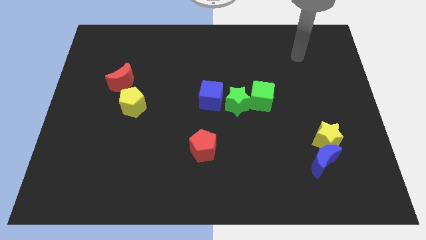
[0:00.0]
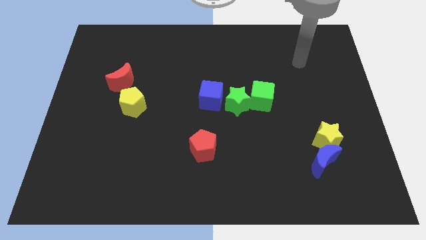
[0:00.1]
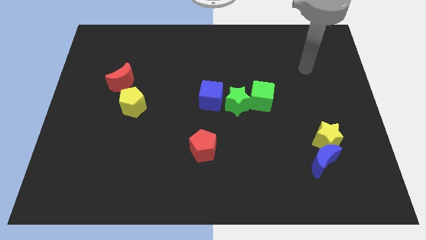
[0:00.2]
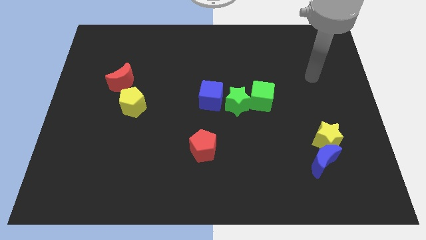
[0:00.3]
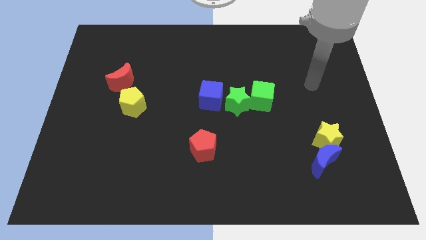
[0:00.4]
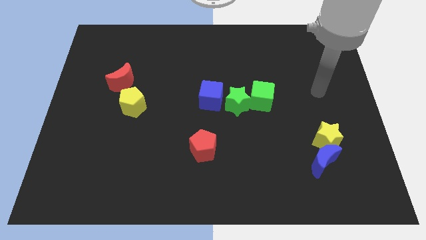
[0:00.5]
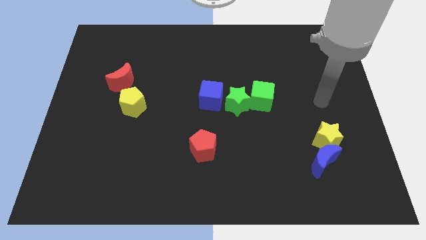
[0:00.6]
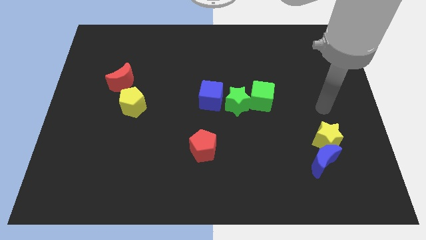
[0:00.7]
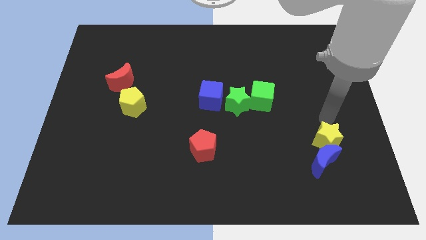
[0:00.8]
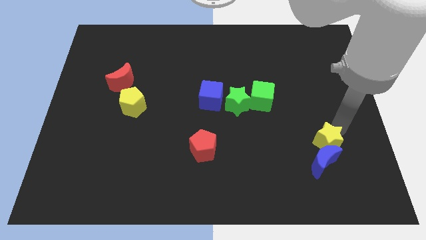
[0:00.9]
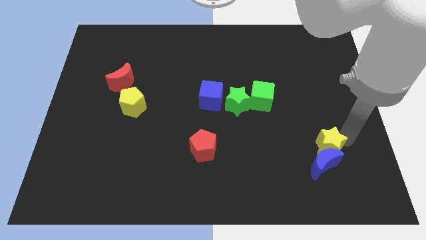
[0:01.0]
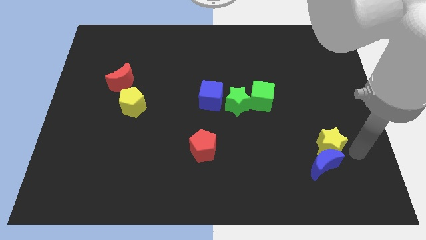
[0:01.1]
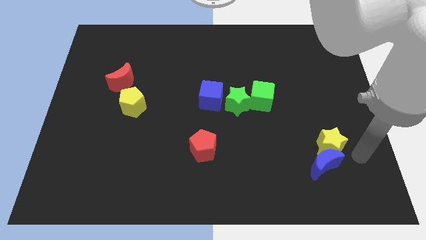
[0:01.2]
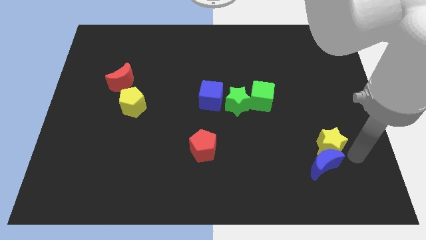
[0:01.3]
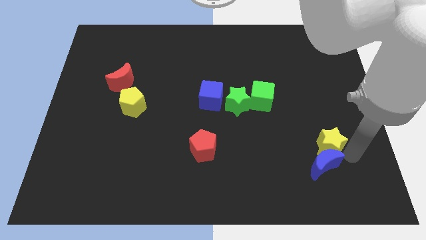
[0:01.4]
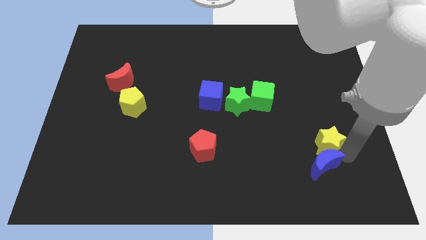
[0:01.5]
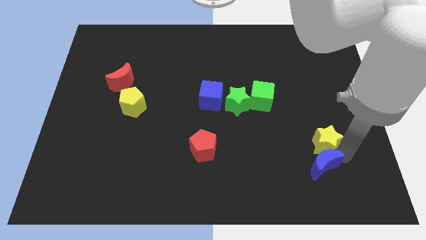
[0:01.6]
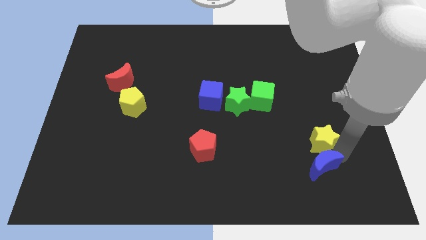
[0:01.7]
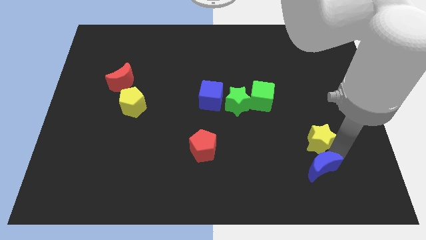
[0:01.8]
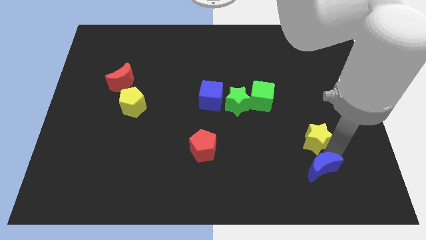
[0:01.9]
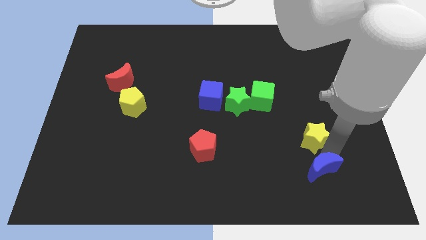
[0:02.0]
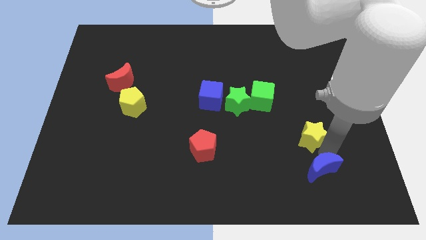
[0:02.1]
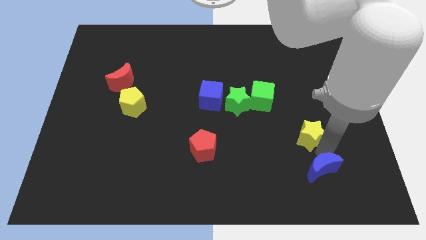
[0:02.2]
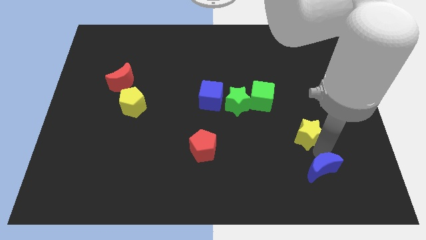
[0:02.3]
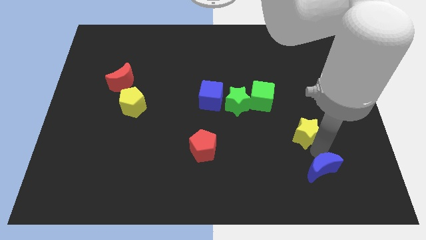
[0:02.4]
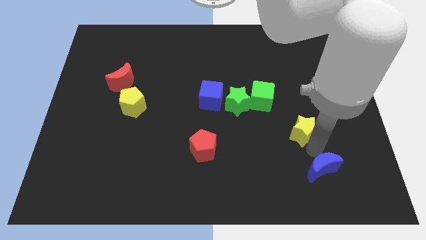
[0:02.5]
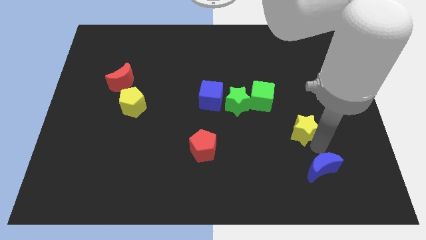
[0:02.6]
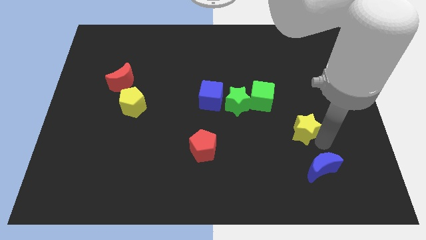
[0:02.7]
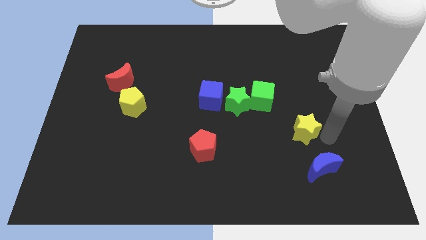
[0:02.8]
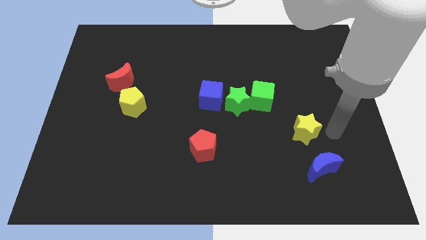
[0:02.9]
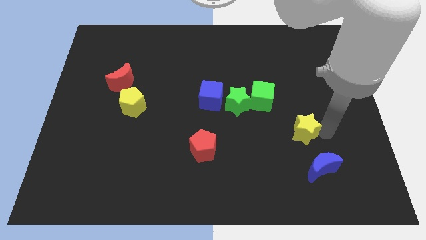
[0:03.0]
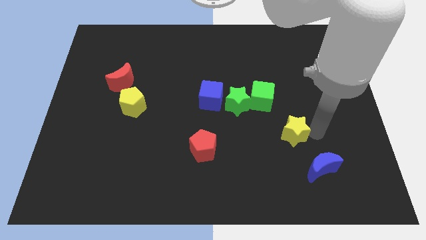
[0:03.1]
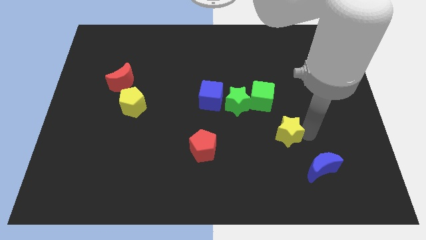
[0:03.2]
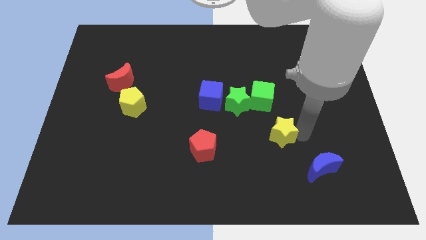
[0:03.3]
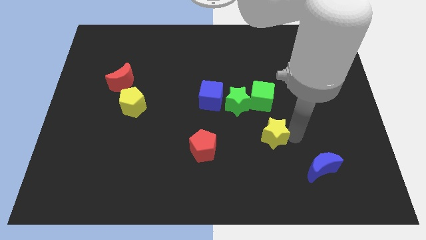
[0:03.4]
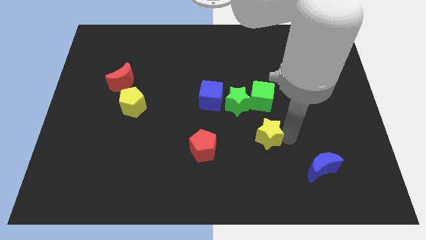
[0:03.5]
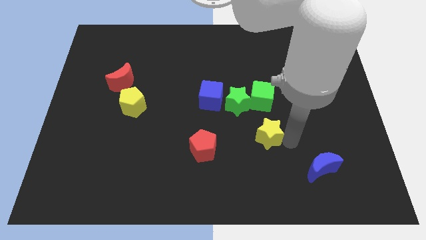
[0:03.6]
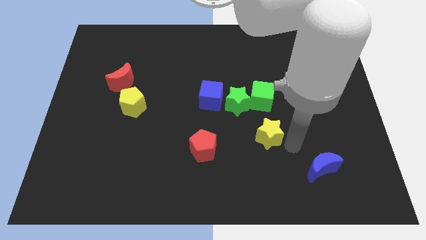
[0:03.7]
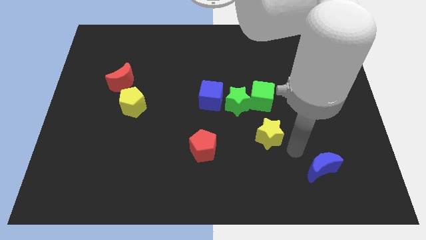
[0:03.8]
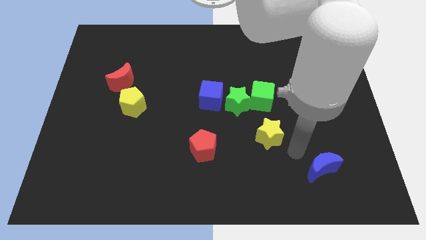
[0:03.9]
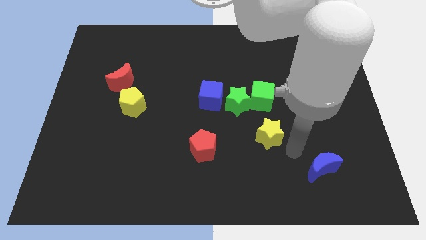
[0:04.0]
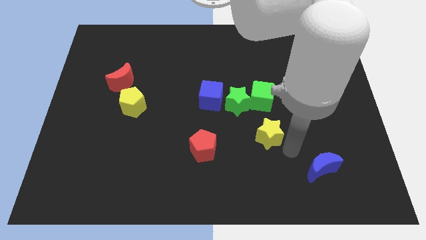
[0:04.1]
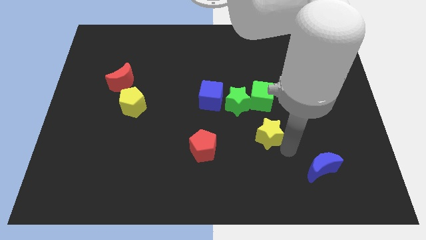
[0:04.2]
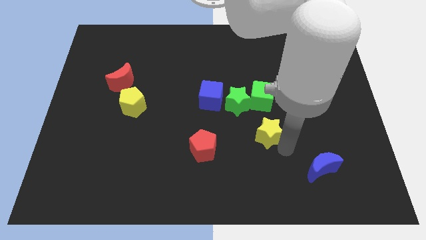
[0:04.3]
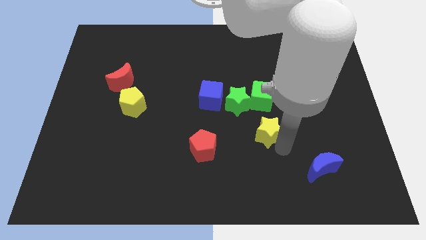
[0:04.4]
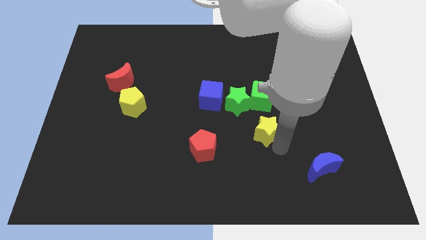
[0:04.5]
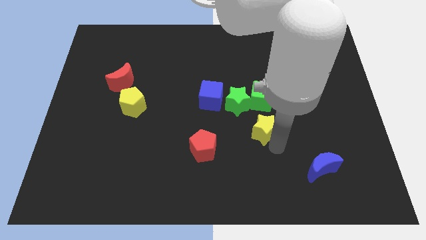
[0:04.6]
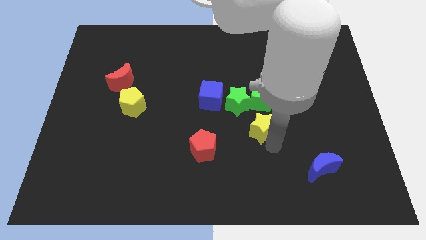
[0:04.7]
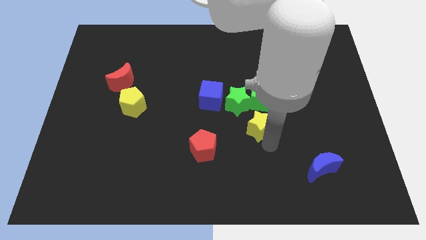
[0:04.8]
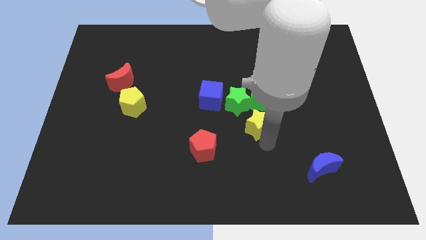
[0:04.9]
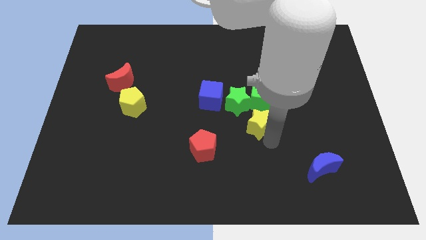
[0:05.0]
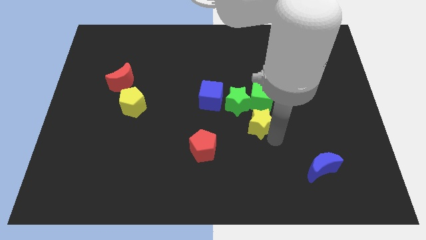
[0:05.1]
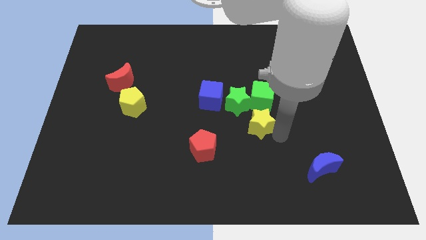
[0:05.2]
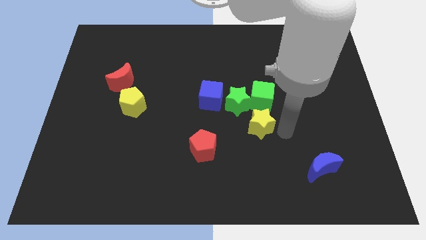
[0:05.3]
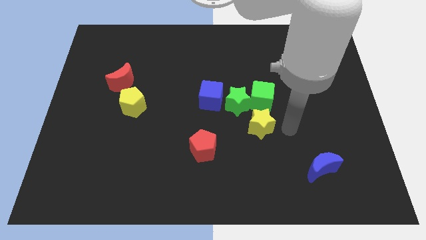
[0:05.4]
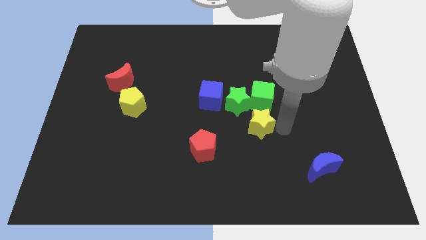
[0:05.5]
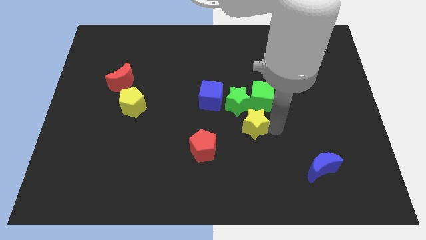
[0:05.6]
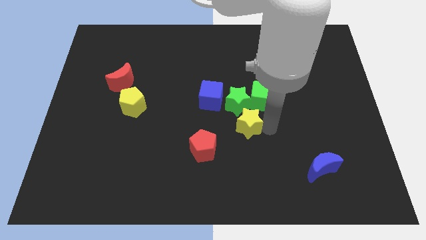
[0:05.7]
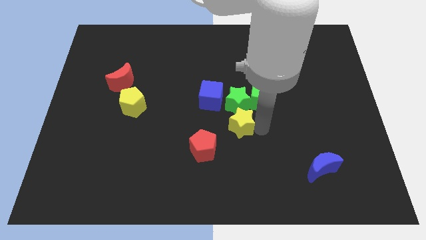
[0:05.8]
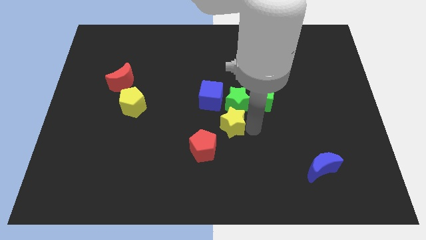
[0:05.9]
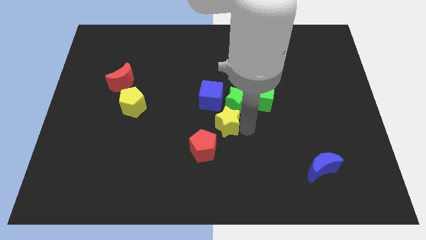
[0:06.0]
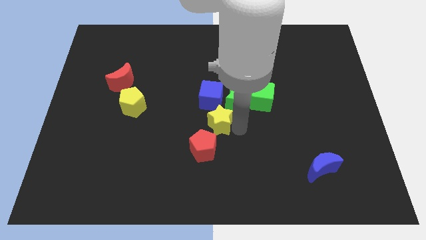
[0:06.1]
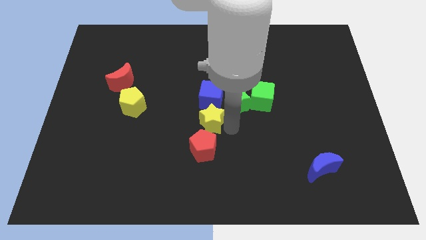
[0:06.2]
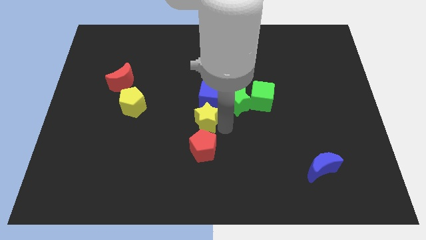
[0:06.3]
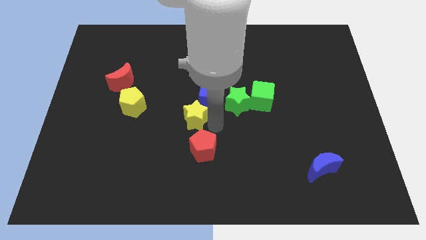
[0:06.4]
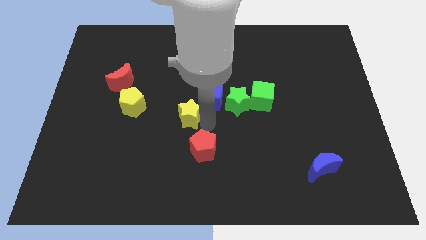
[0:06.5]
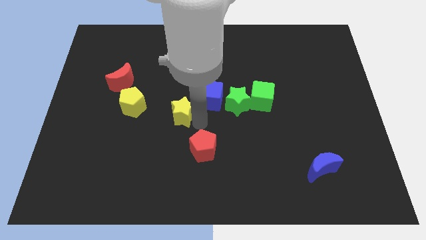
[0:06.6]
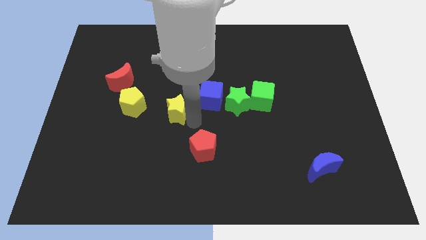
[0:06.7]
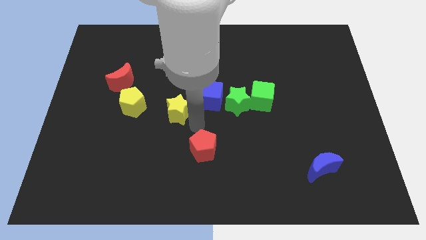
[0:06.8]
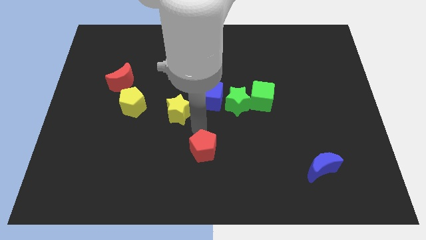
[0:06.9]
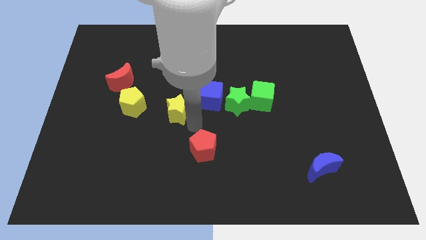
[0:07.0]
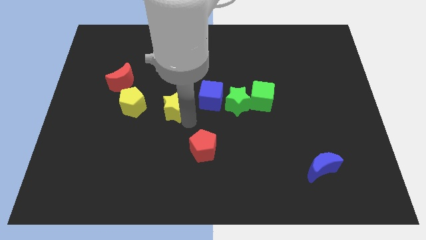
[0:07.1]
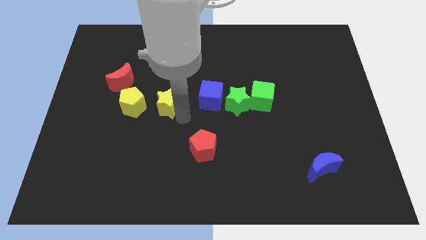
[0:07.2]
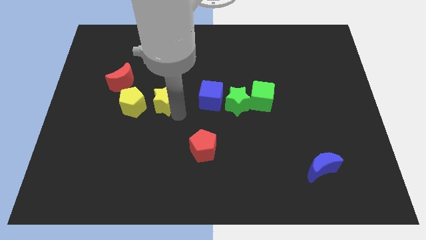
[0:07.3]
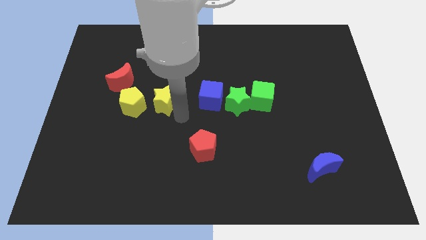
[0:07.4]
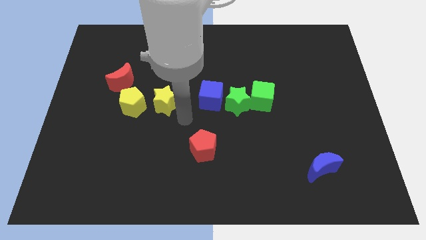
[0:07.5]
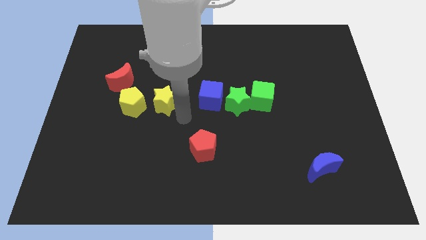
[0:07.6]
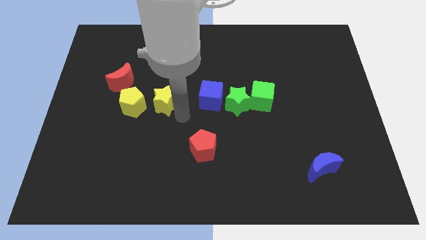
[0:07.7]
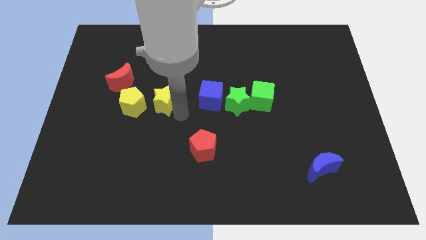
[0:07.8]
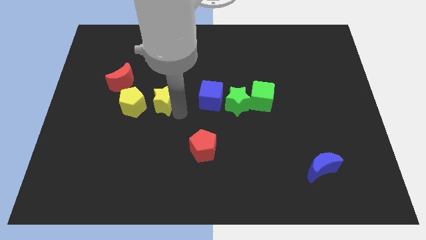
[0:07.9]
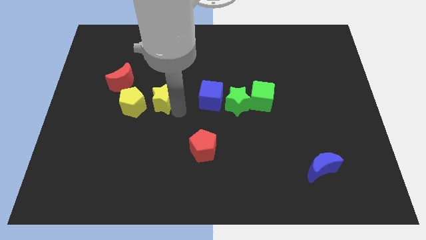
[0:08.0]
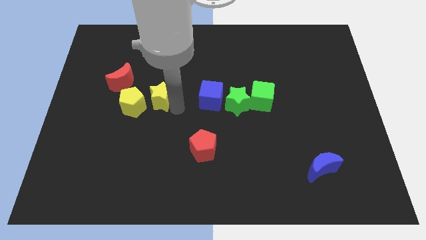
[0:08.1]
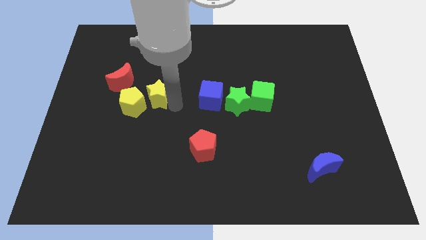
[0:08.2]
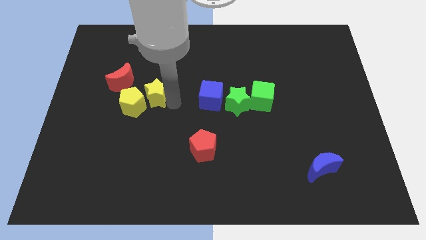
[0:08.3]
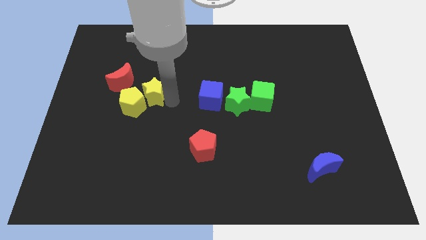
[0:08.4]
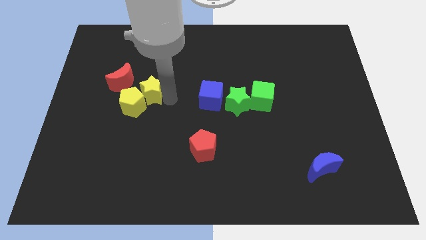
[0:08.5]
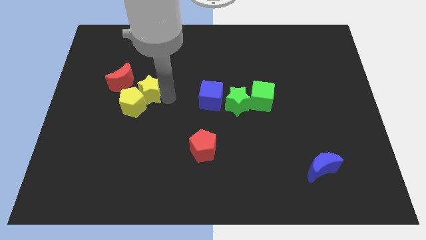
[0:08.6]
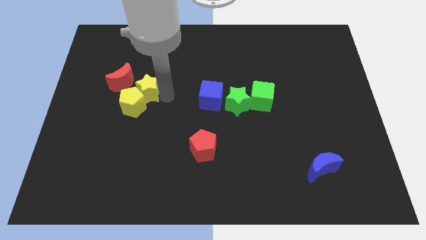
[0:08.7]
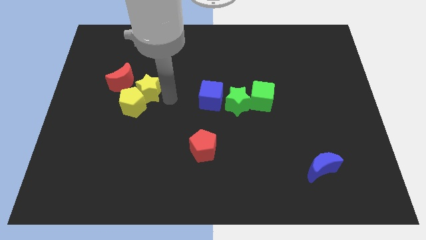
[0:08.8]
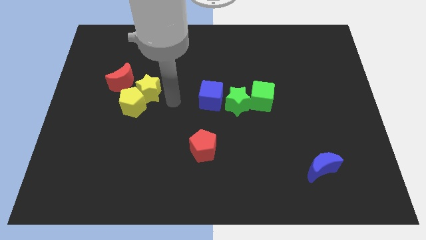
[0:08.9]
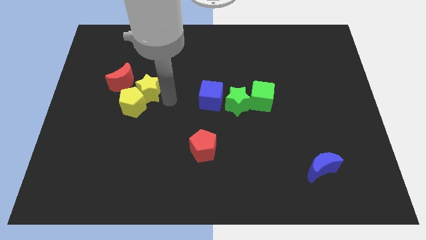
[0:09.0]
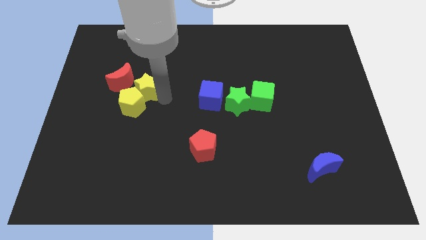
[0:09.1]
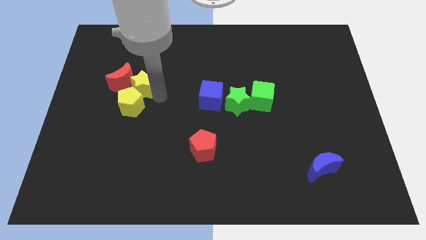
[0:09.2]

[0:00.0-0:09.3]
put the yellow star close to the red moon
